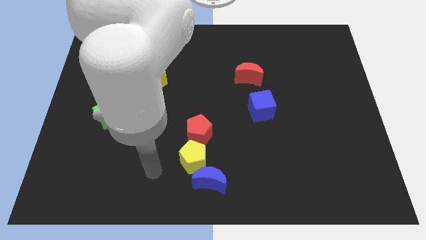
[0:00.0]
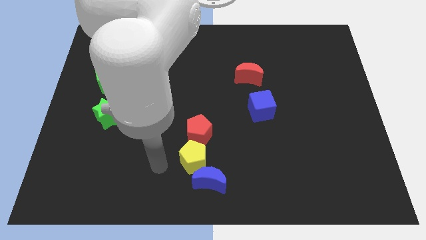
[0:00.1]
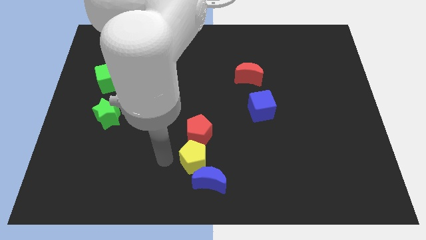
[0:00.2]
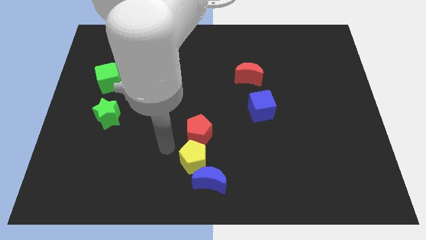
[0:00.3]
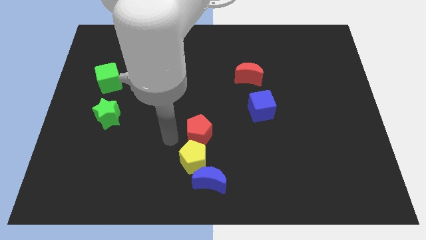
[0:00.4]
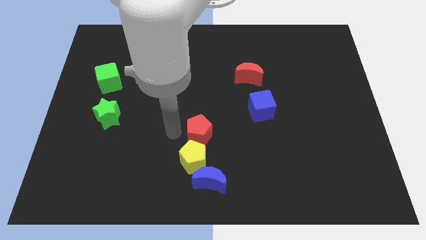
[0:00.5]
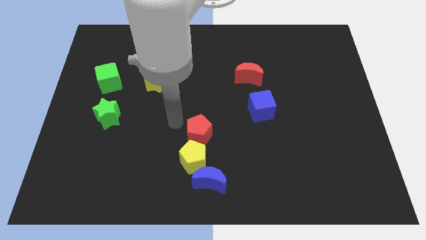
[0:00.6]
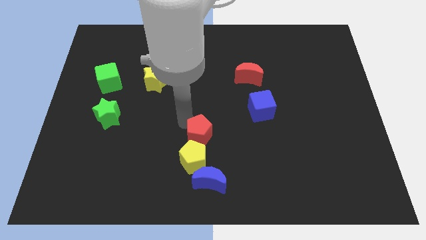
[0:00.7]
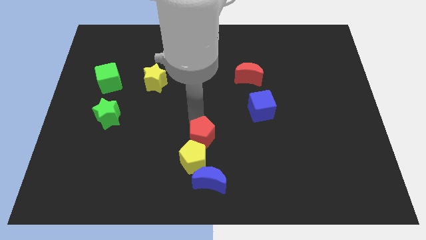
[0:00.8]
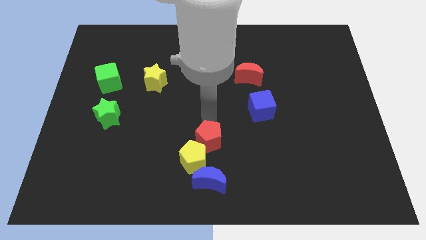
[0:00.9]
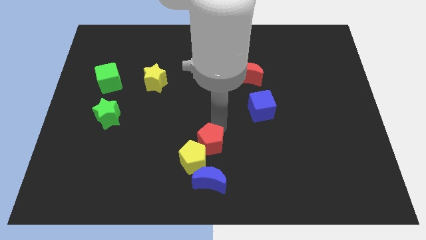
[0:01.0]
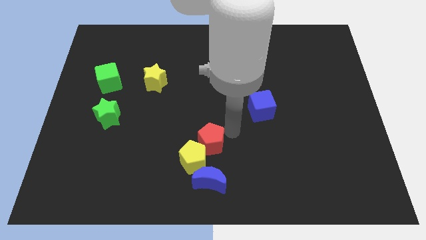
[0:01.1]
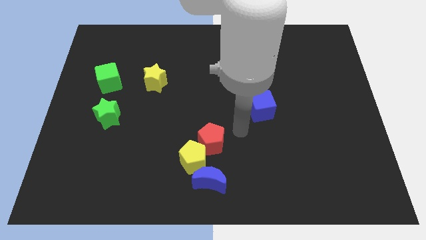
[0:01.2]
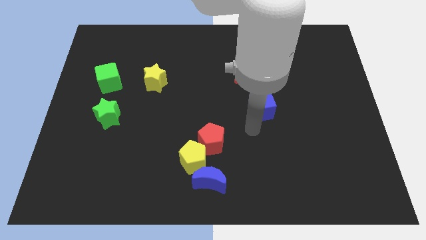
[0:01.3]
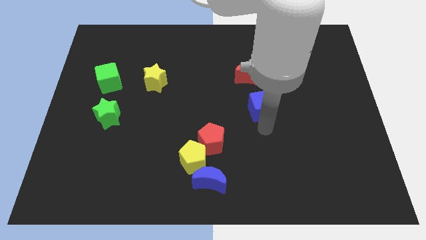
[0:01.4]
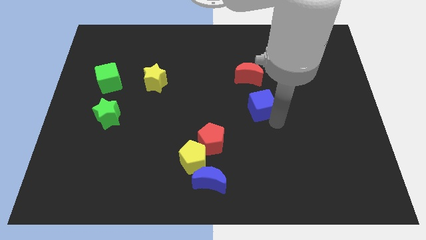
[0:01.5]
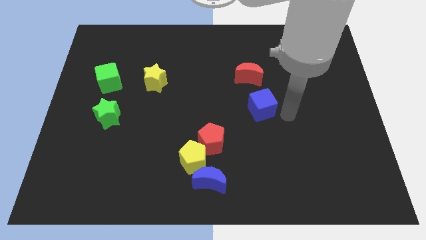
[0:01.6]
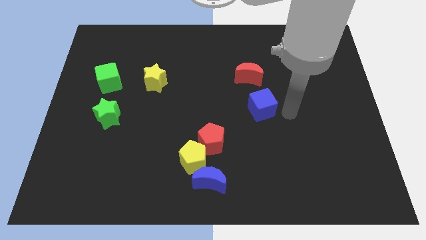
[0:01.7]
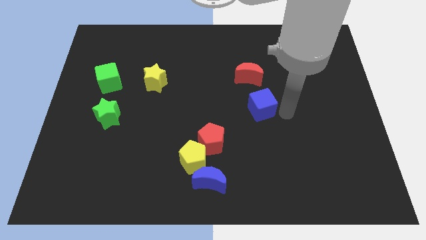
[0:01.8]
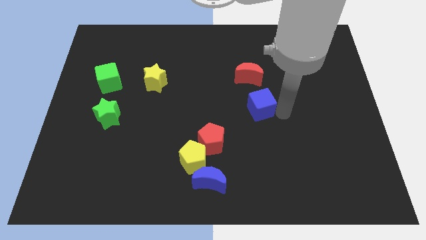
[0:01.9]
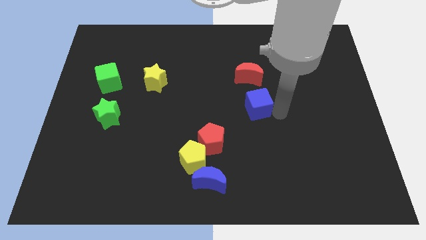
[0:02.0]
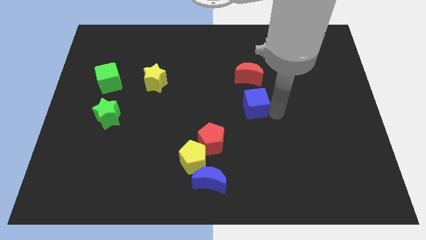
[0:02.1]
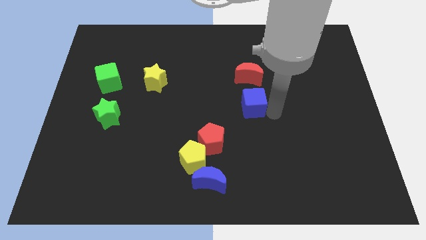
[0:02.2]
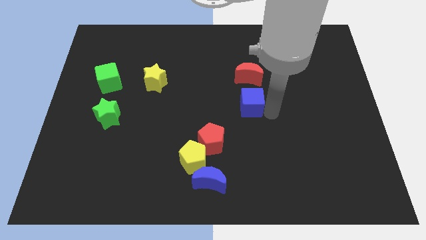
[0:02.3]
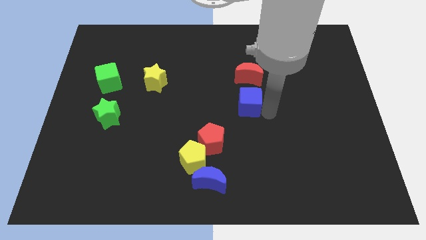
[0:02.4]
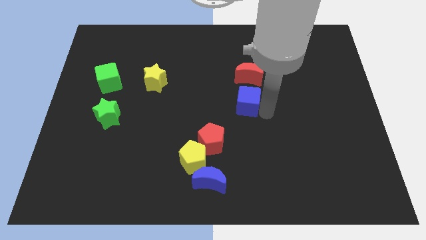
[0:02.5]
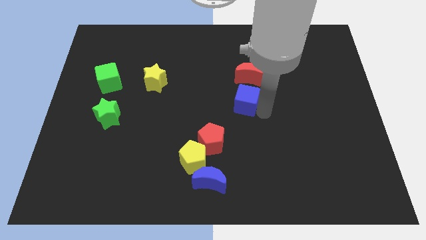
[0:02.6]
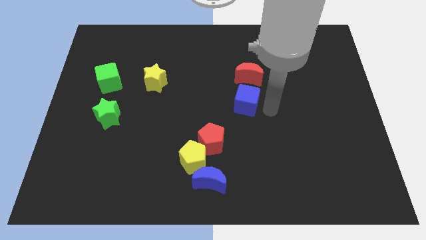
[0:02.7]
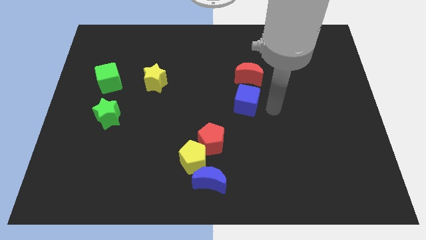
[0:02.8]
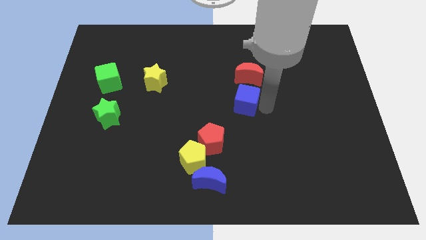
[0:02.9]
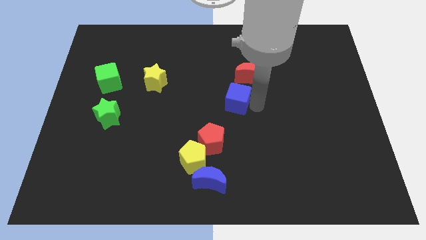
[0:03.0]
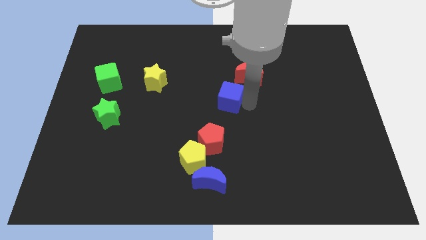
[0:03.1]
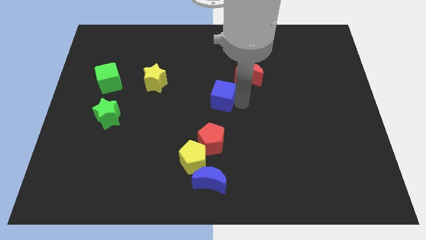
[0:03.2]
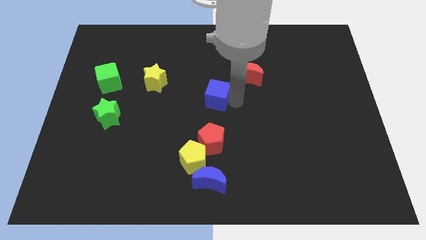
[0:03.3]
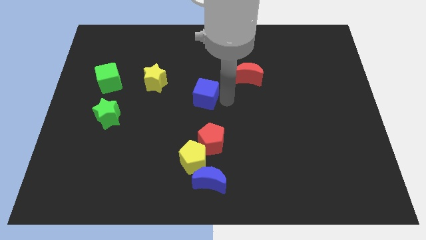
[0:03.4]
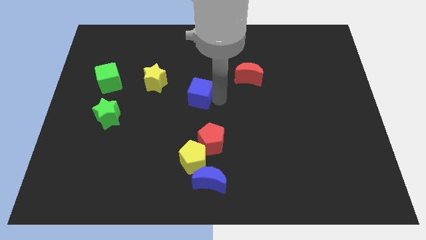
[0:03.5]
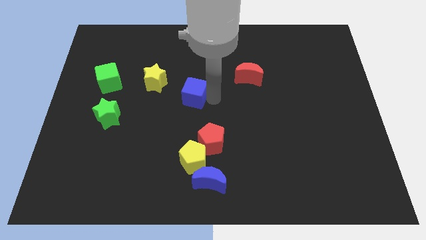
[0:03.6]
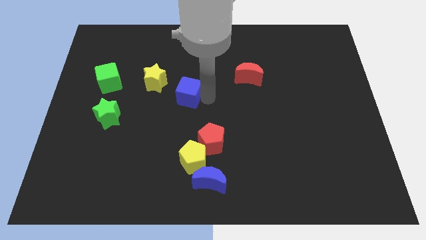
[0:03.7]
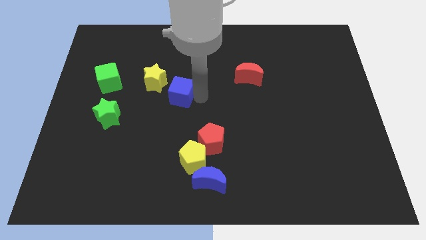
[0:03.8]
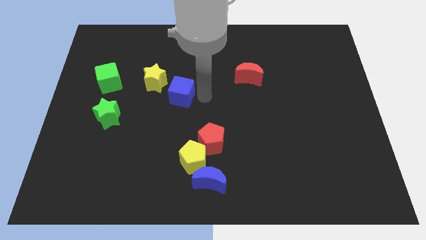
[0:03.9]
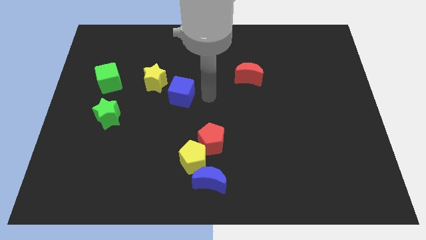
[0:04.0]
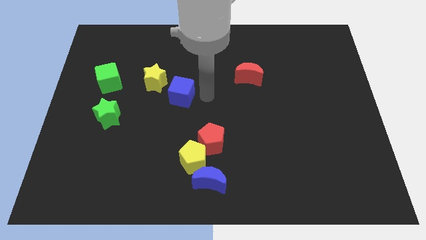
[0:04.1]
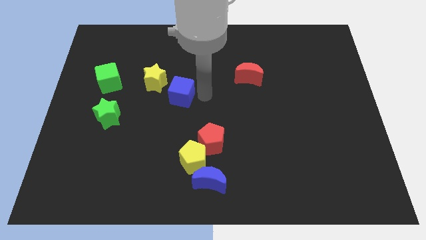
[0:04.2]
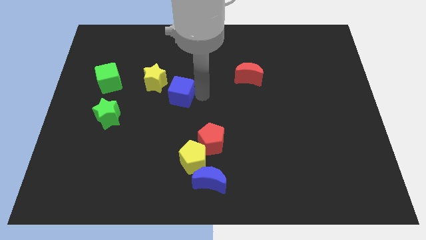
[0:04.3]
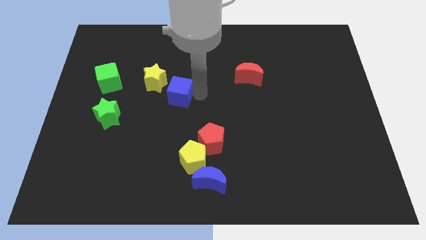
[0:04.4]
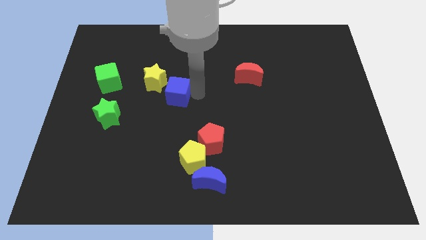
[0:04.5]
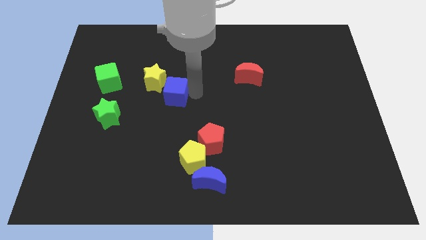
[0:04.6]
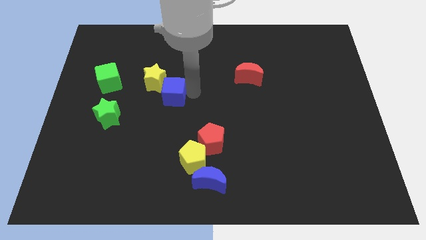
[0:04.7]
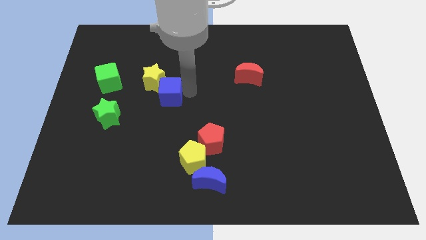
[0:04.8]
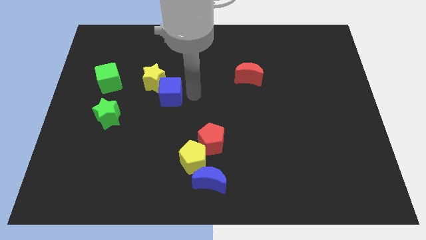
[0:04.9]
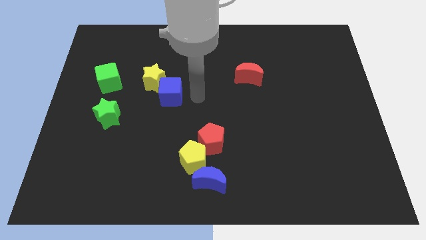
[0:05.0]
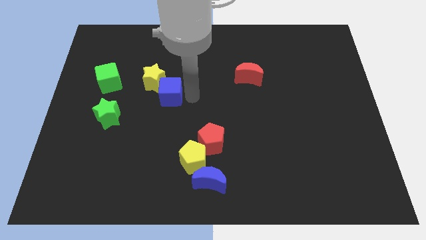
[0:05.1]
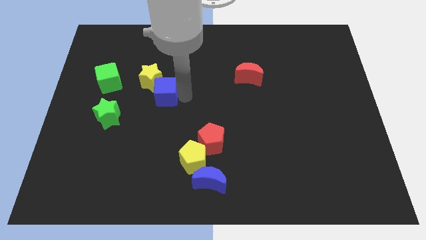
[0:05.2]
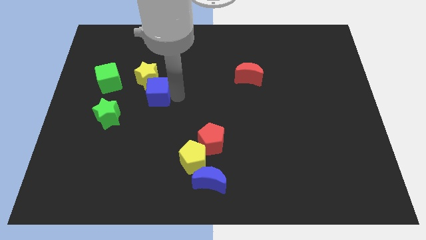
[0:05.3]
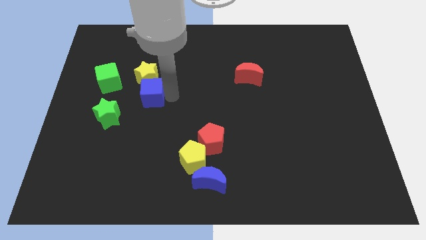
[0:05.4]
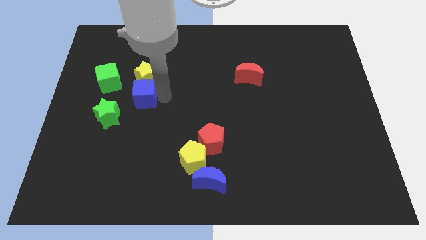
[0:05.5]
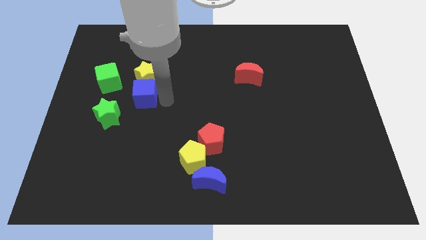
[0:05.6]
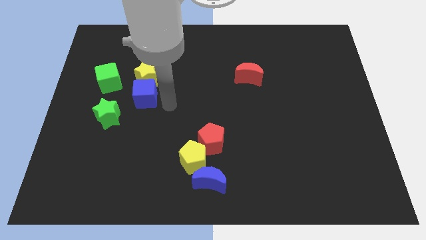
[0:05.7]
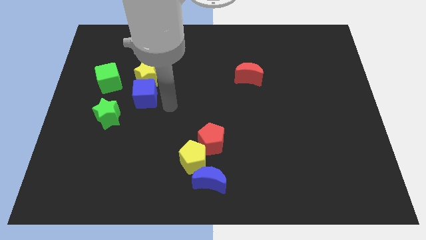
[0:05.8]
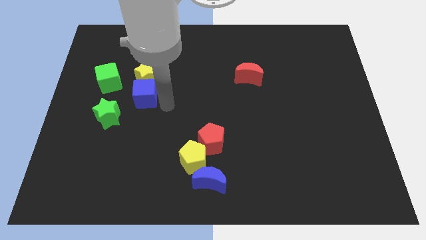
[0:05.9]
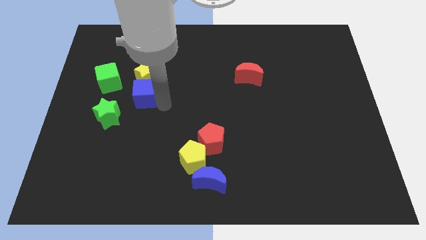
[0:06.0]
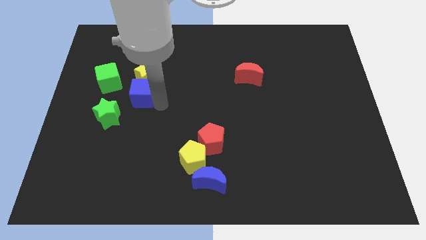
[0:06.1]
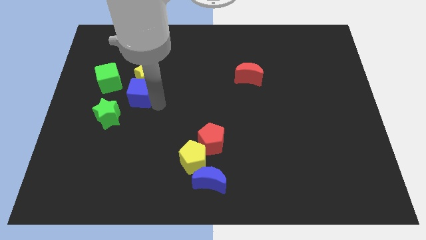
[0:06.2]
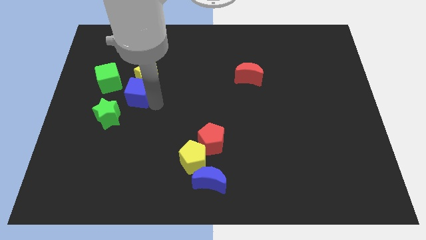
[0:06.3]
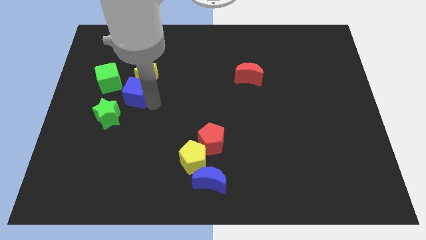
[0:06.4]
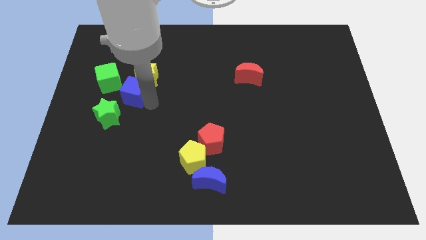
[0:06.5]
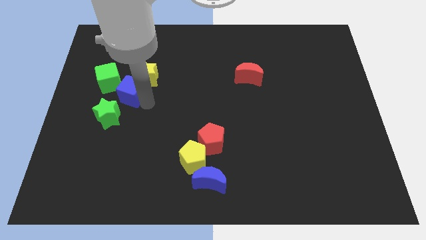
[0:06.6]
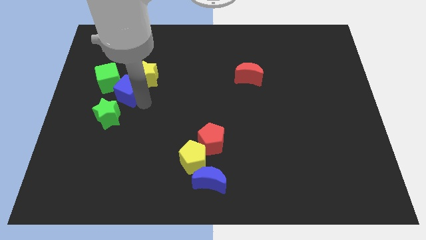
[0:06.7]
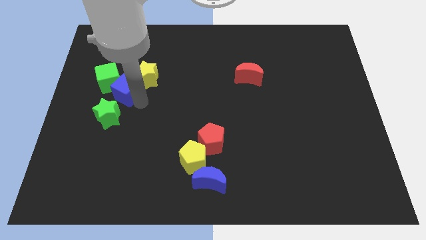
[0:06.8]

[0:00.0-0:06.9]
push the blue cube to the green cube

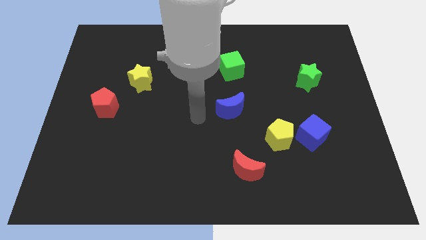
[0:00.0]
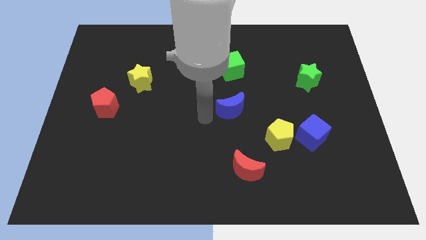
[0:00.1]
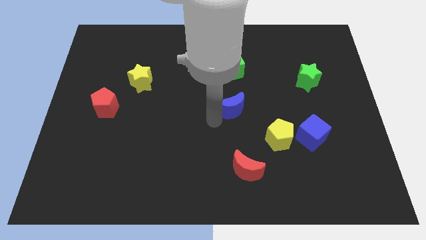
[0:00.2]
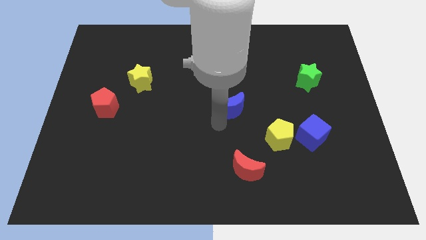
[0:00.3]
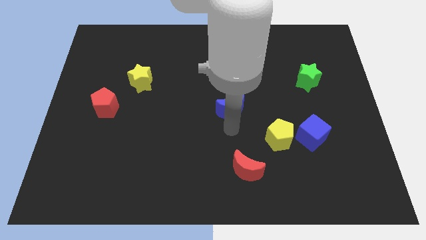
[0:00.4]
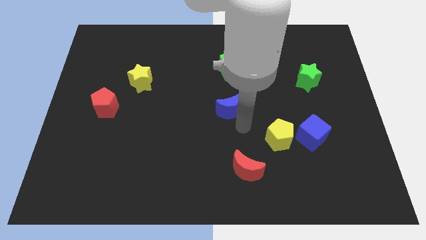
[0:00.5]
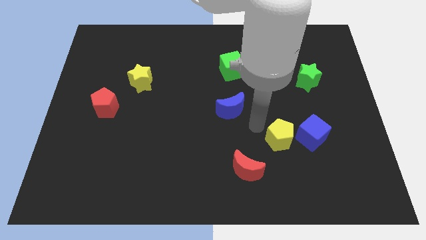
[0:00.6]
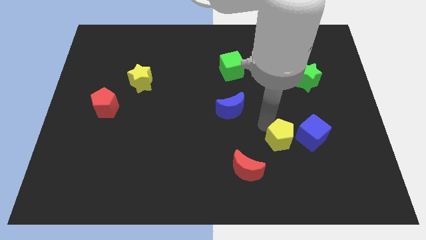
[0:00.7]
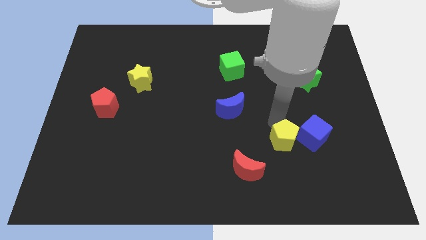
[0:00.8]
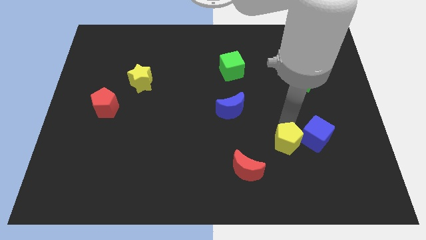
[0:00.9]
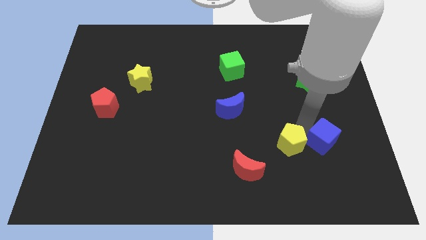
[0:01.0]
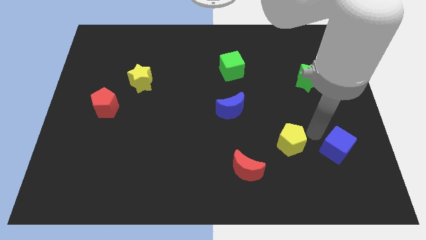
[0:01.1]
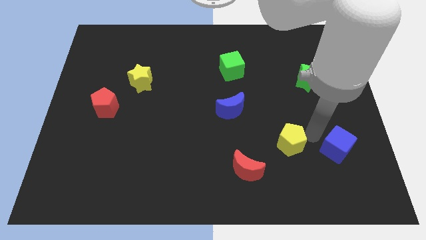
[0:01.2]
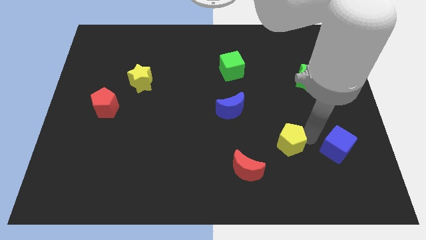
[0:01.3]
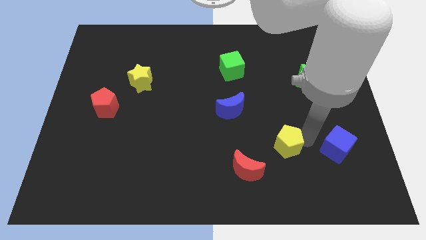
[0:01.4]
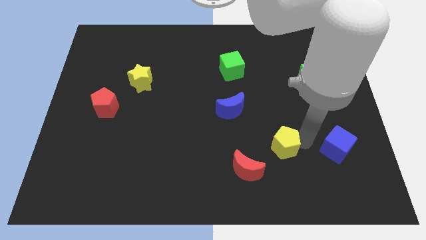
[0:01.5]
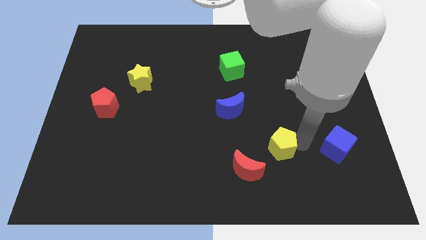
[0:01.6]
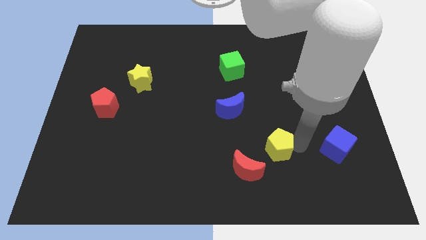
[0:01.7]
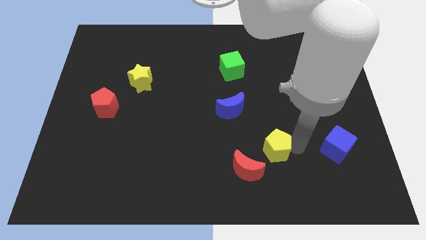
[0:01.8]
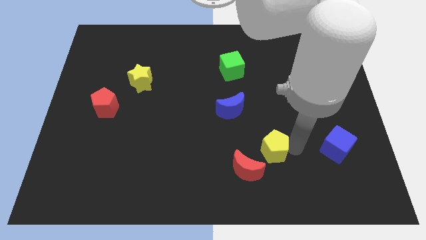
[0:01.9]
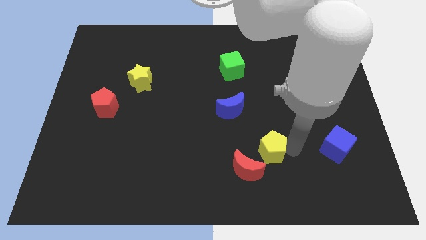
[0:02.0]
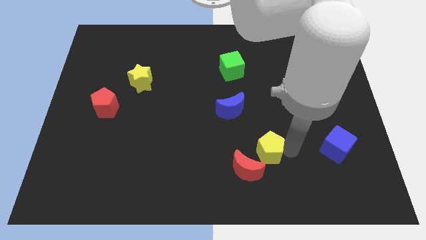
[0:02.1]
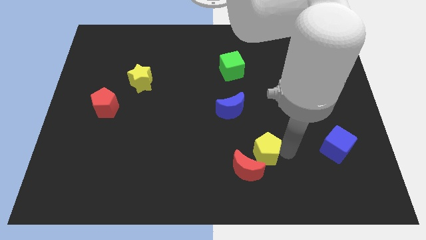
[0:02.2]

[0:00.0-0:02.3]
move the yellow pentagon towards the red moon
